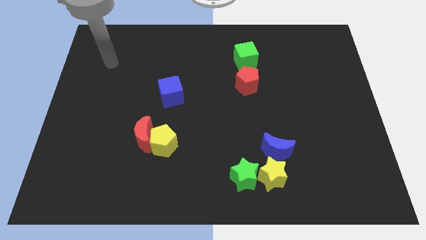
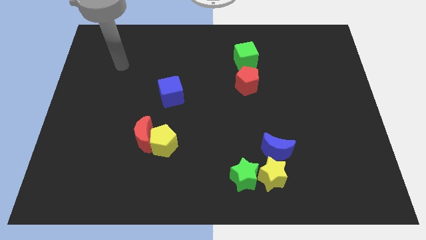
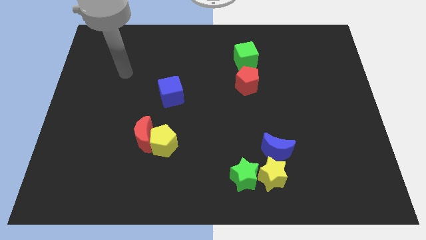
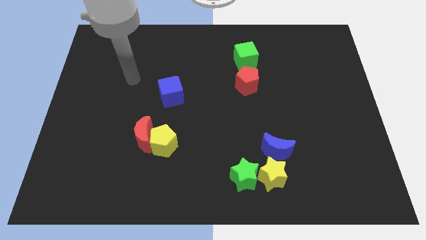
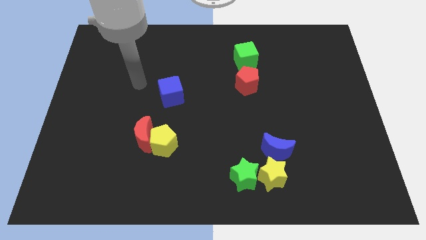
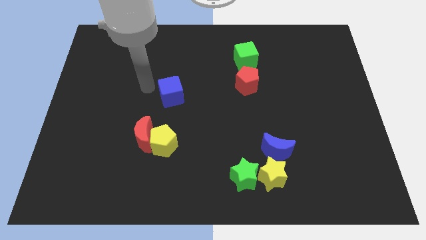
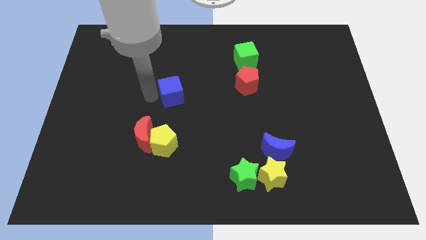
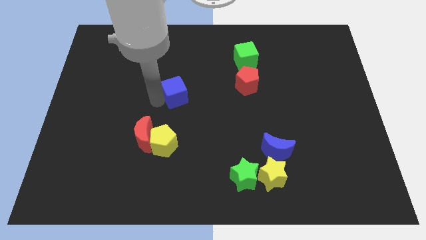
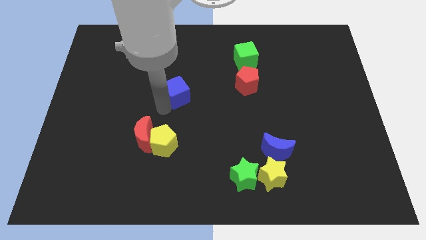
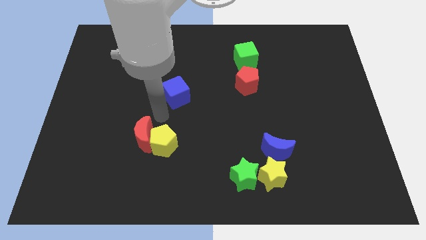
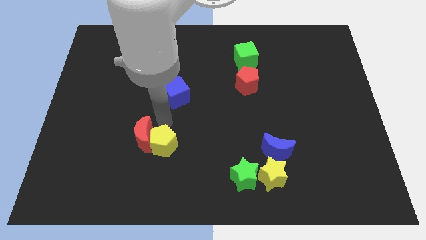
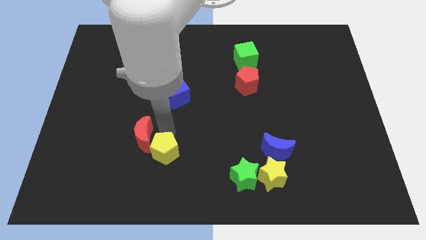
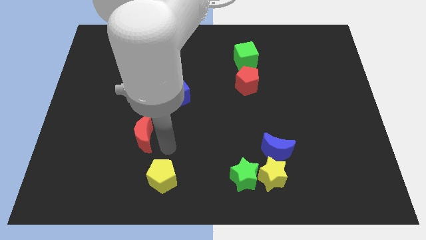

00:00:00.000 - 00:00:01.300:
move the red moon away from the yellow pentagon

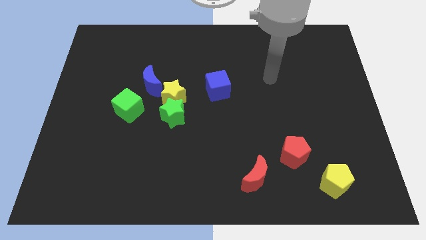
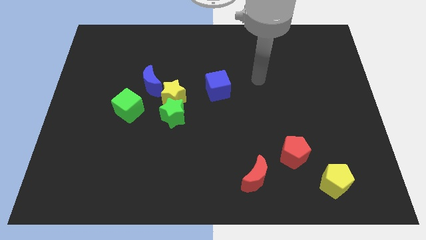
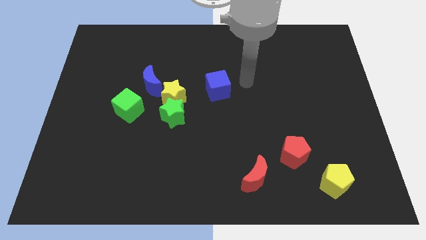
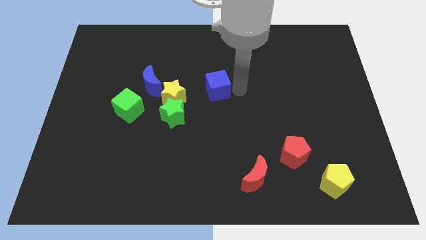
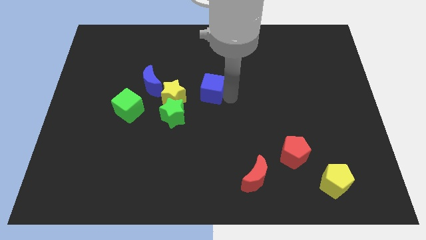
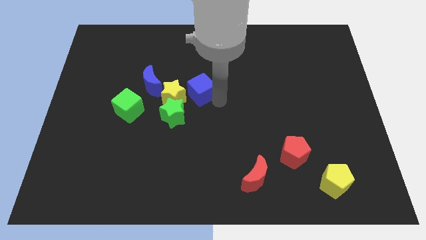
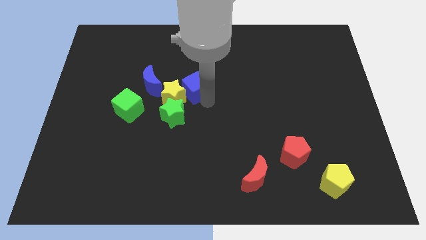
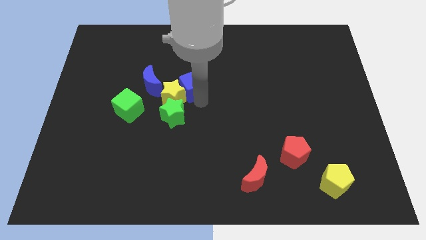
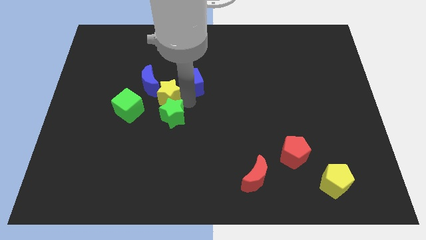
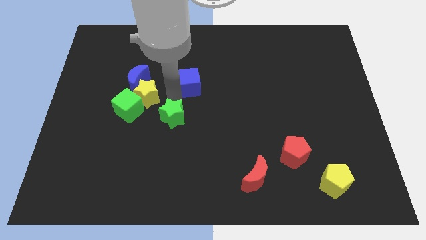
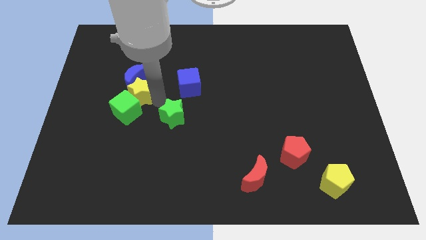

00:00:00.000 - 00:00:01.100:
move the green star away from the yellow star

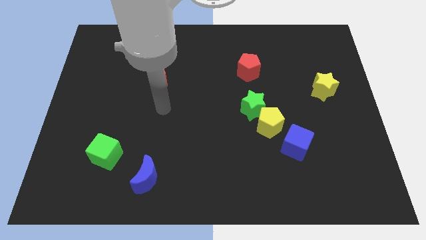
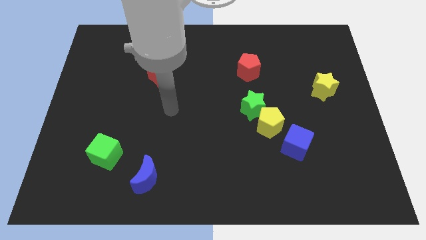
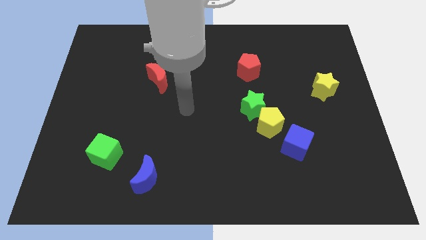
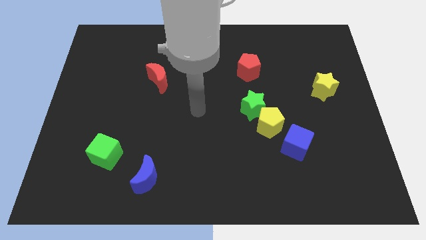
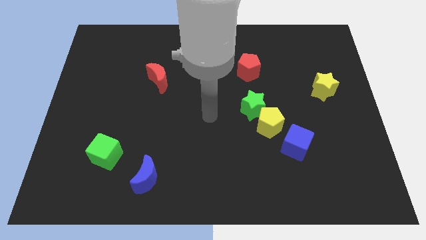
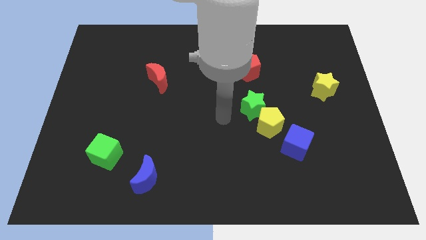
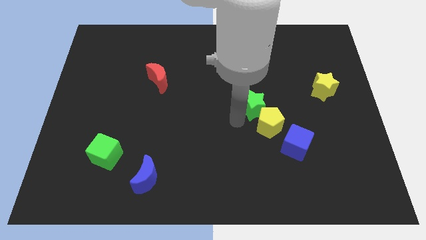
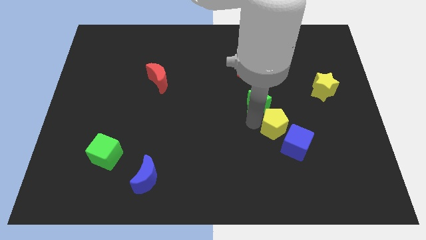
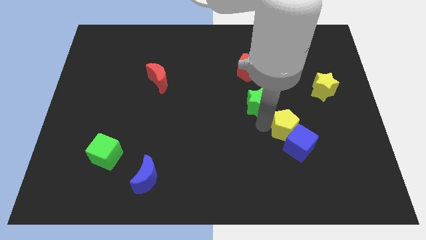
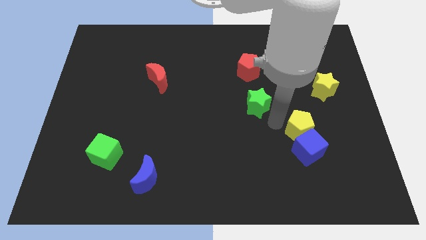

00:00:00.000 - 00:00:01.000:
separate the green star from the yellow pentagon

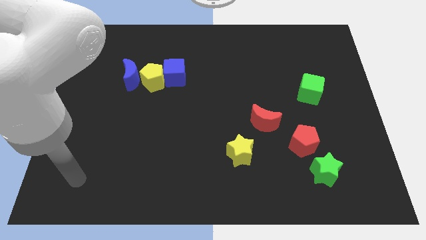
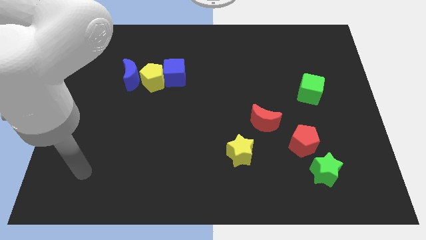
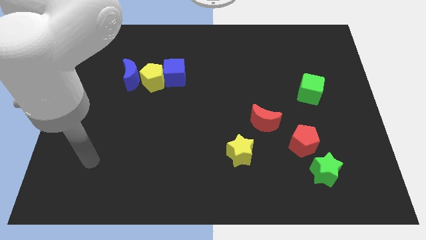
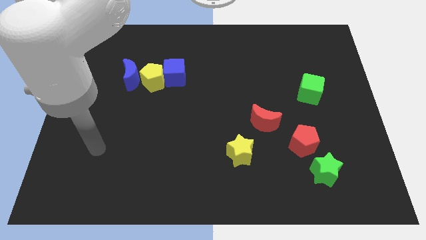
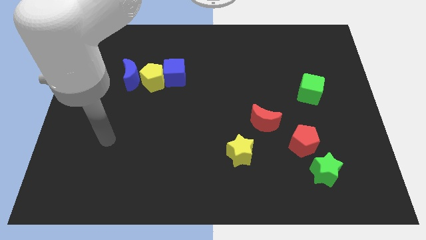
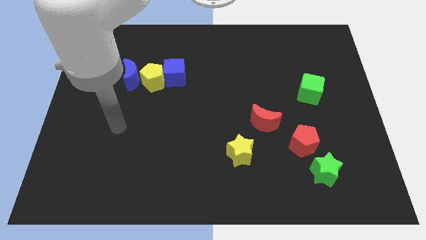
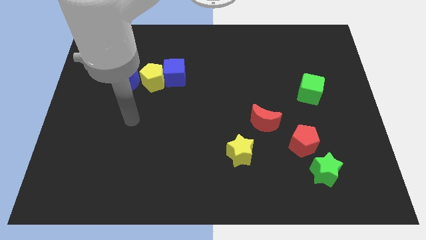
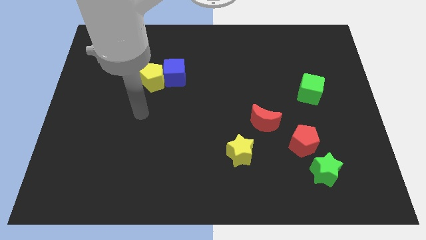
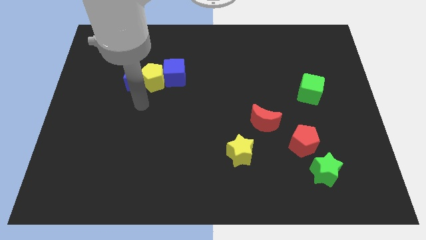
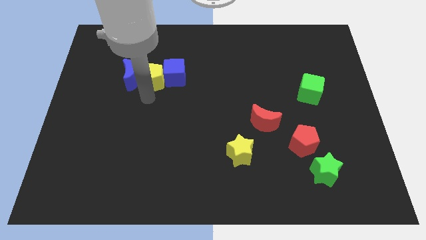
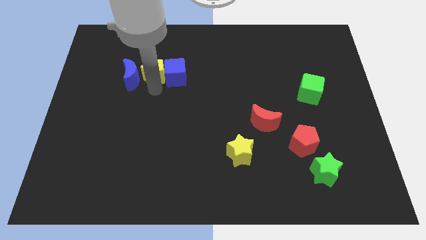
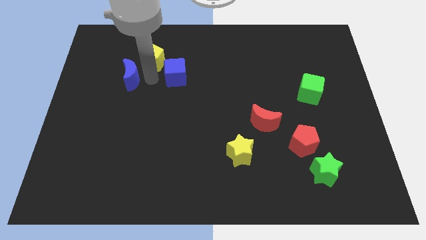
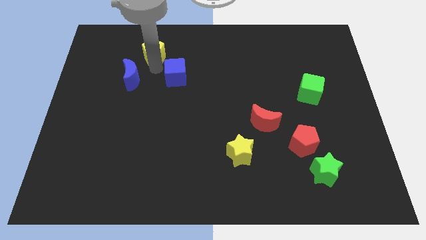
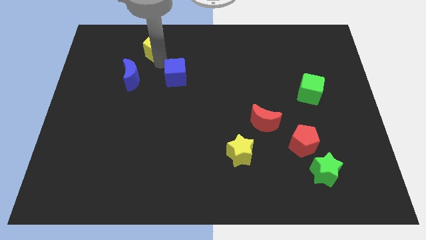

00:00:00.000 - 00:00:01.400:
move the blue cube away from the yellow pentagon

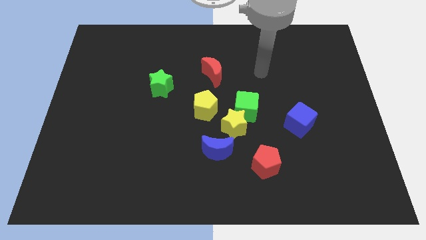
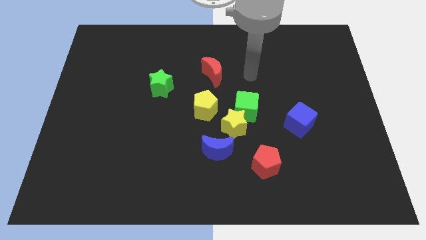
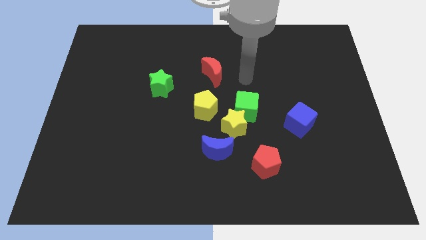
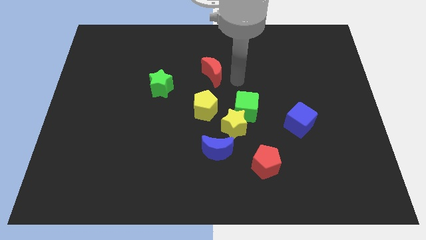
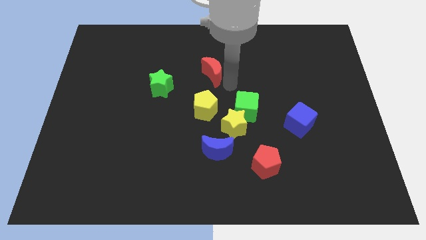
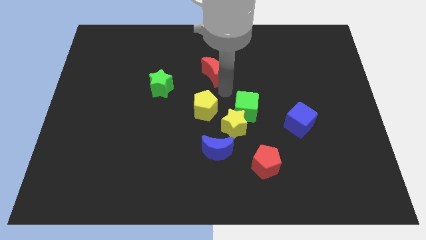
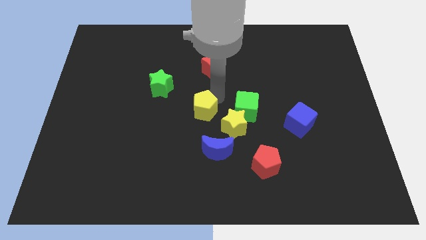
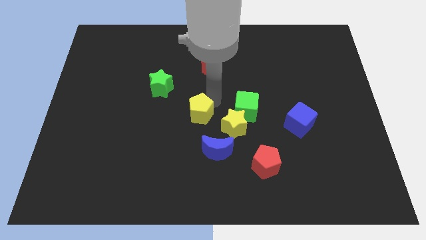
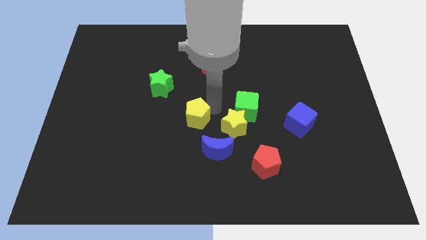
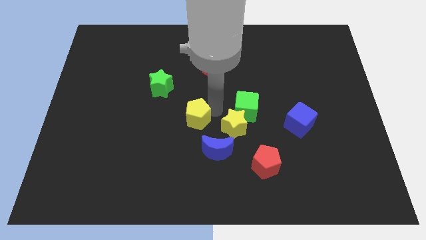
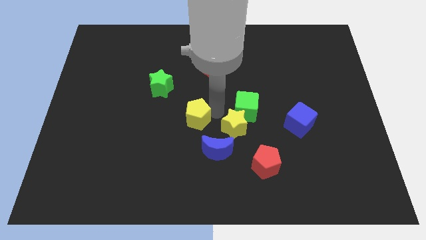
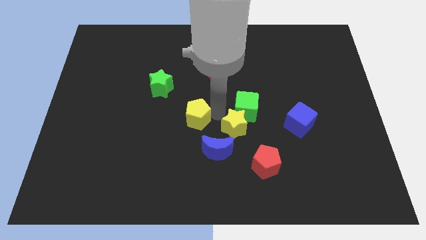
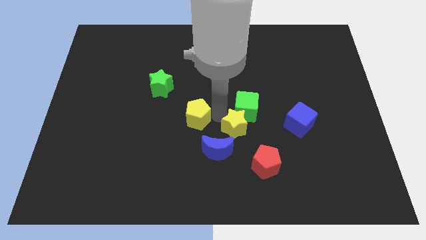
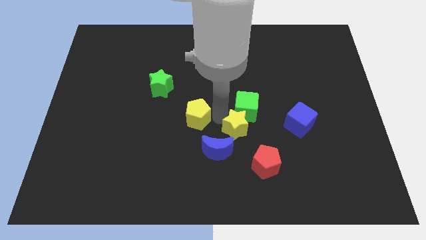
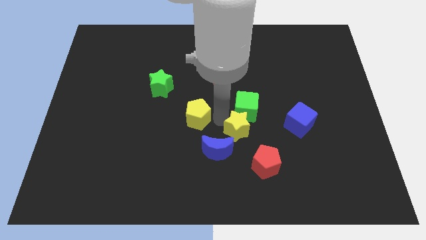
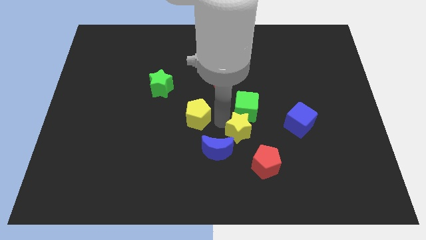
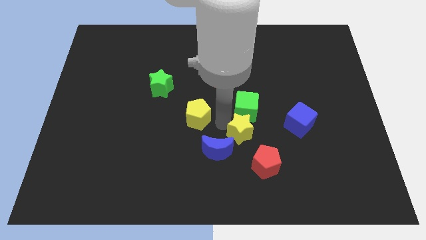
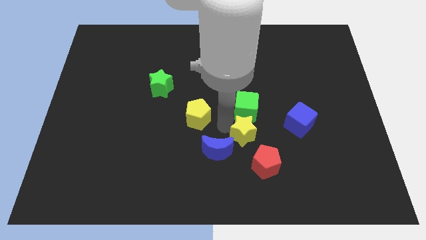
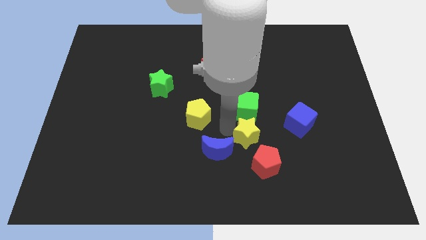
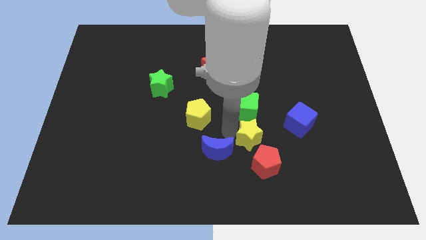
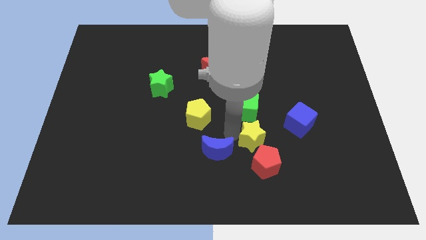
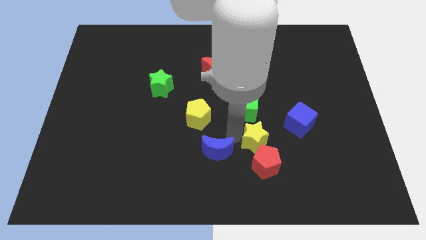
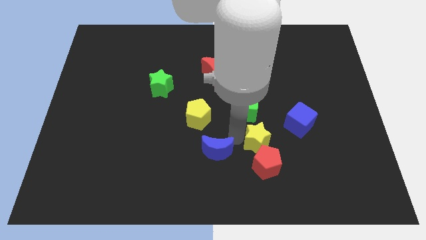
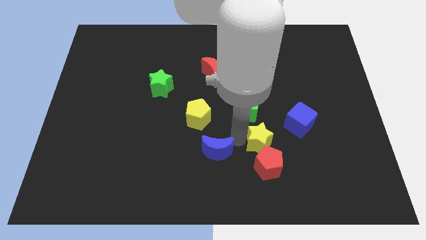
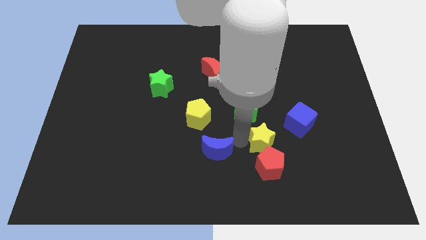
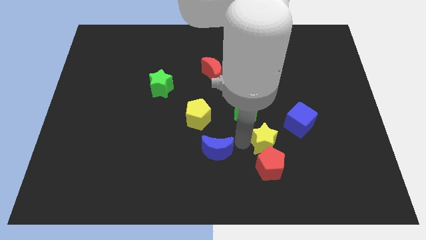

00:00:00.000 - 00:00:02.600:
move the yellow star away from the green cube, blue moon, and yellow pentagon

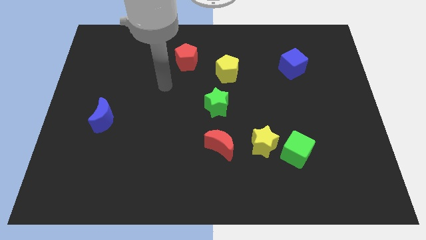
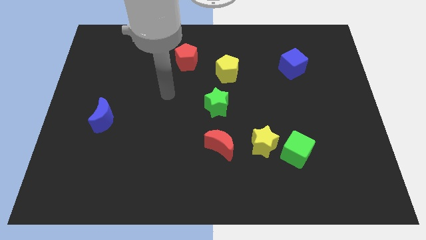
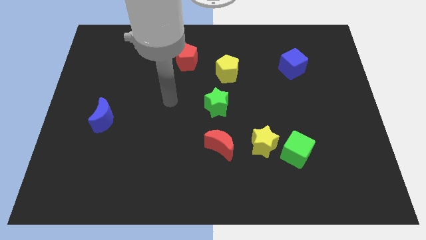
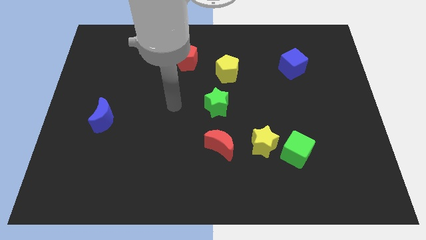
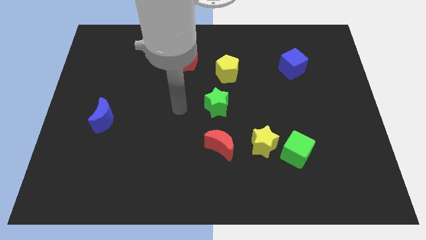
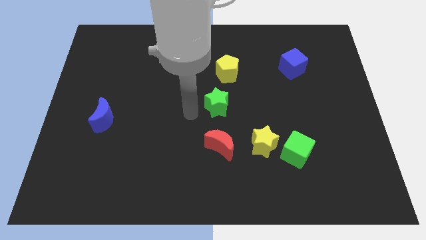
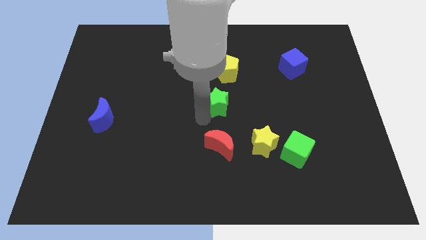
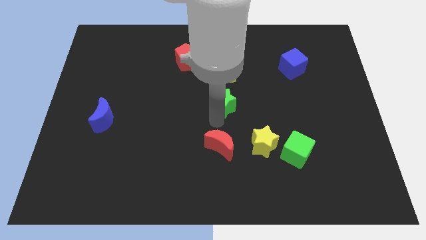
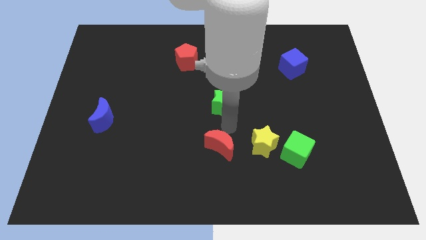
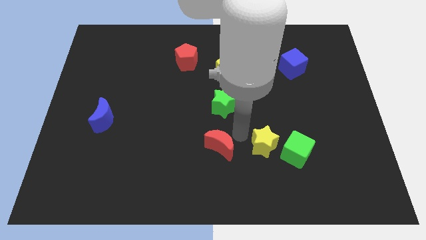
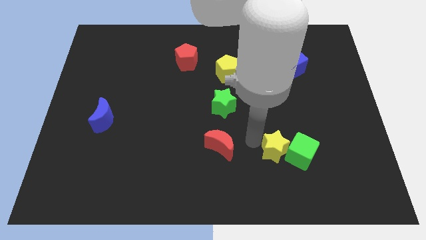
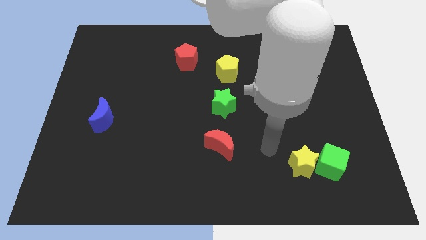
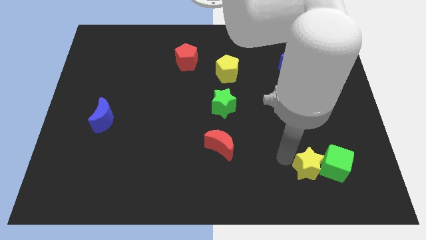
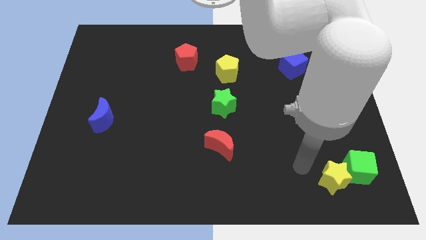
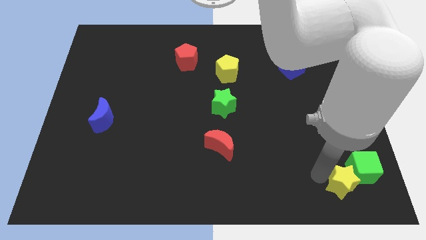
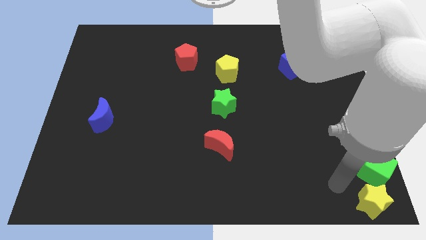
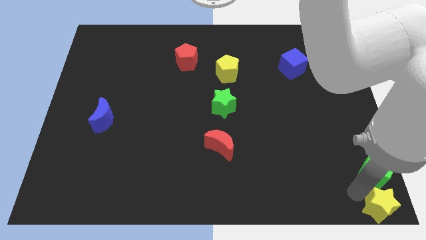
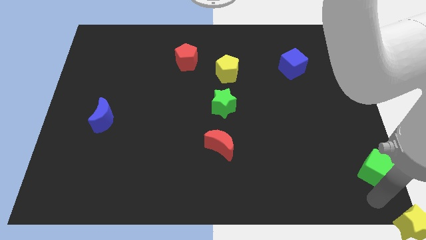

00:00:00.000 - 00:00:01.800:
separate the green cube from the yellow star
